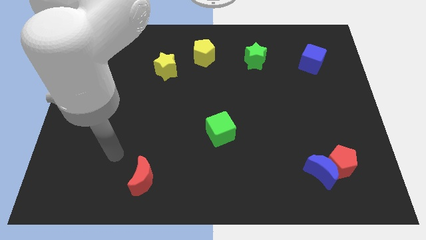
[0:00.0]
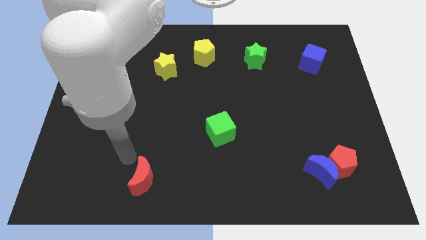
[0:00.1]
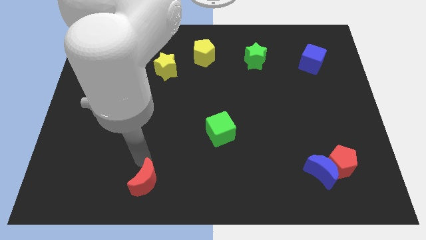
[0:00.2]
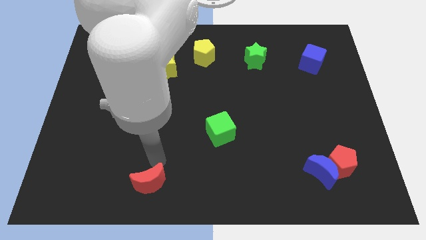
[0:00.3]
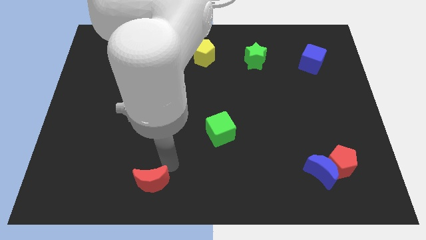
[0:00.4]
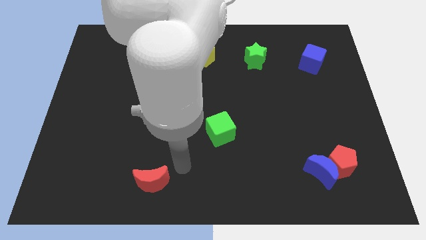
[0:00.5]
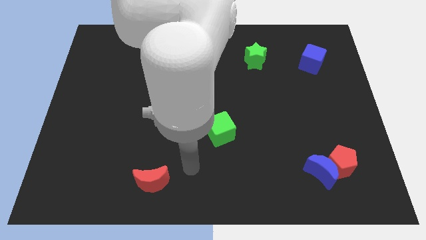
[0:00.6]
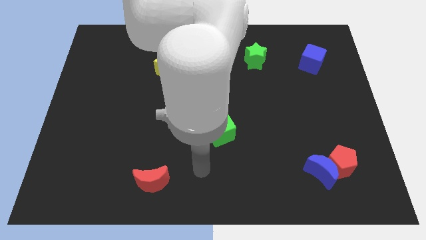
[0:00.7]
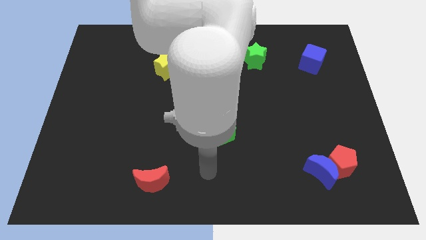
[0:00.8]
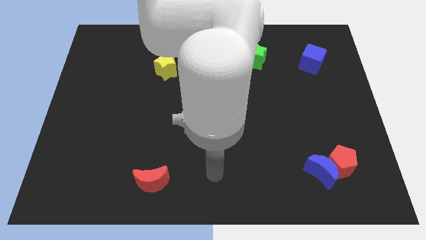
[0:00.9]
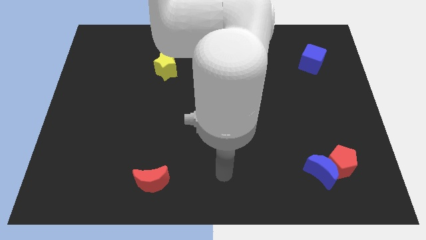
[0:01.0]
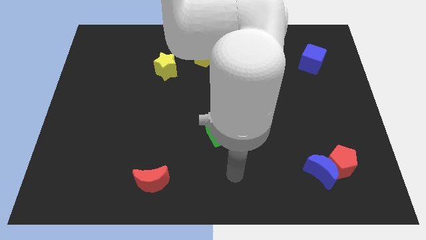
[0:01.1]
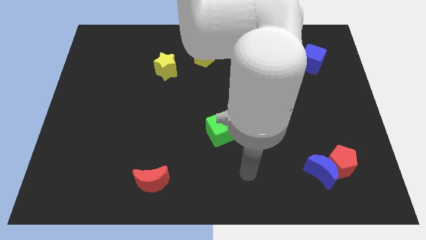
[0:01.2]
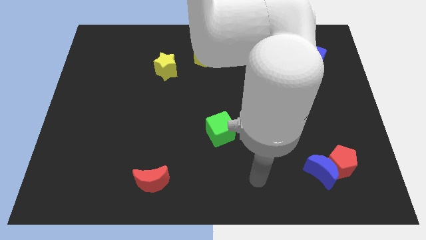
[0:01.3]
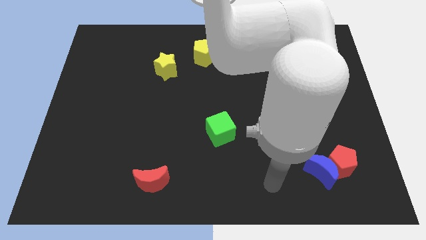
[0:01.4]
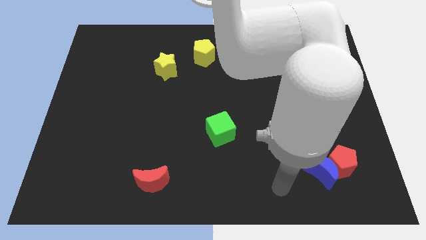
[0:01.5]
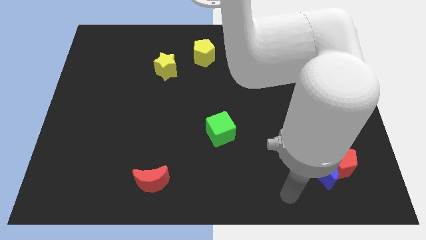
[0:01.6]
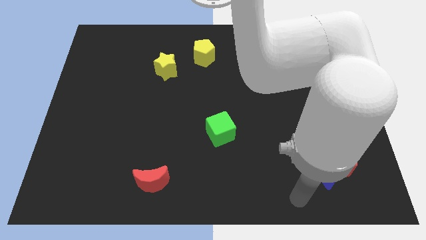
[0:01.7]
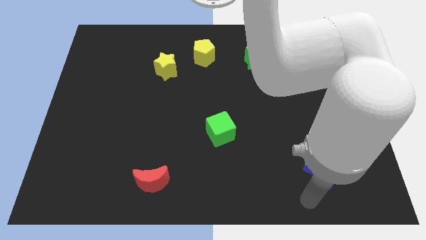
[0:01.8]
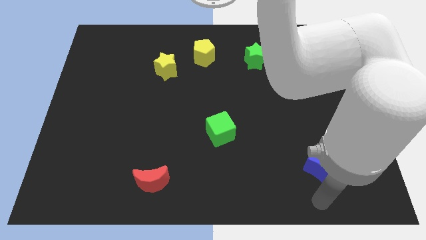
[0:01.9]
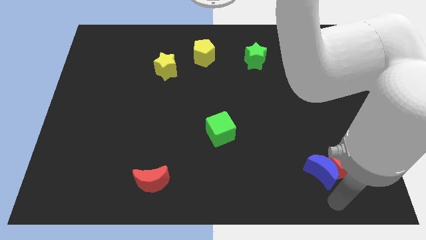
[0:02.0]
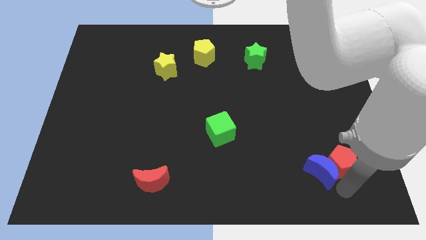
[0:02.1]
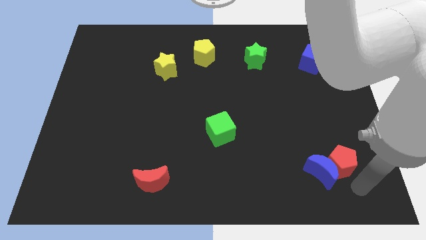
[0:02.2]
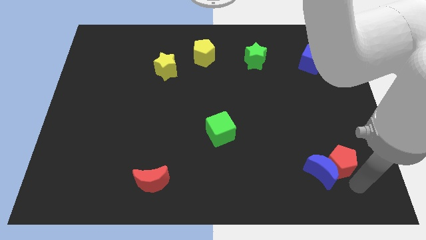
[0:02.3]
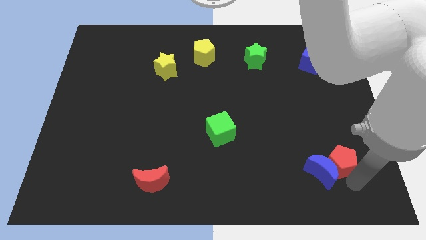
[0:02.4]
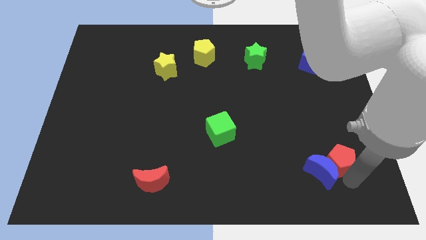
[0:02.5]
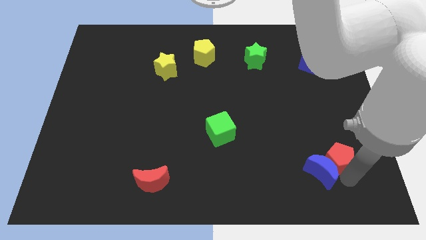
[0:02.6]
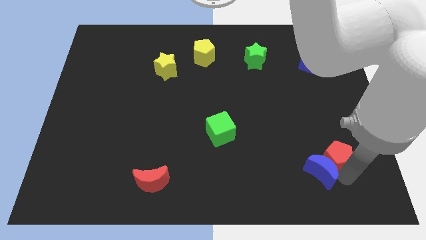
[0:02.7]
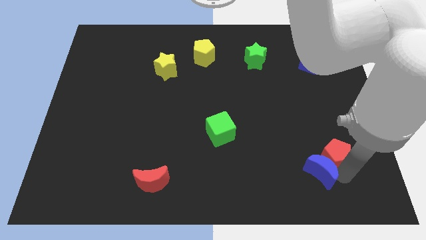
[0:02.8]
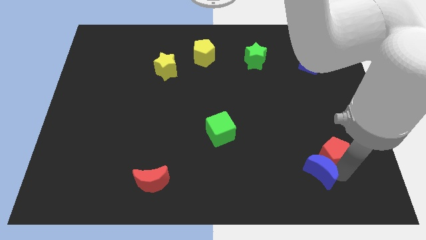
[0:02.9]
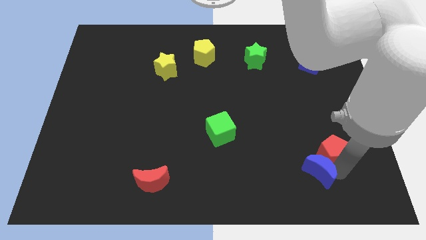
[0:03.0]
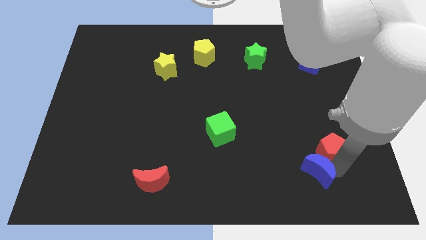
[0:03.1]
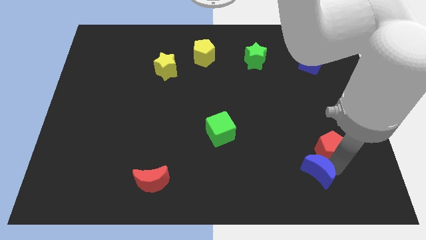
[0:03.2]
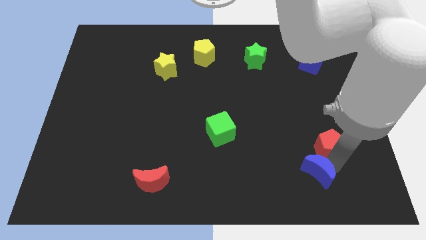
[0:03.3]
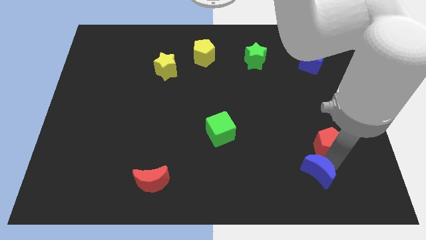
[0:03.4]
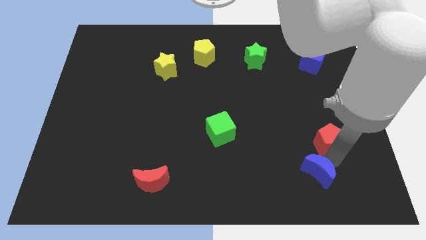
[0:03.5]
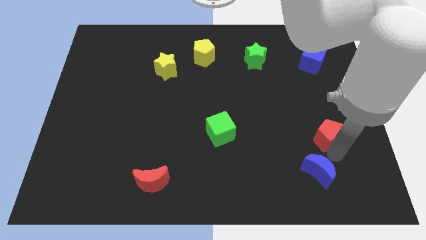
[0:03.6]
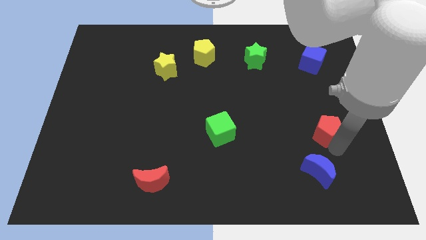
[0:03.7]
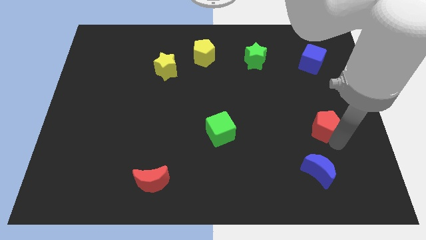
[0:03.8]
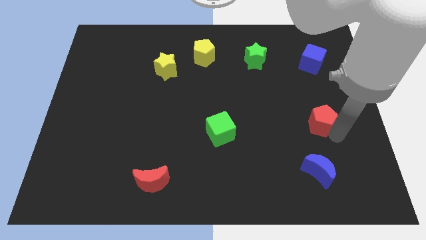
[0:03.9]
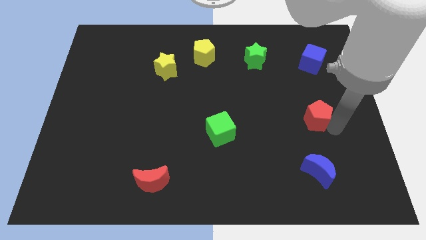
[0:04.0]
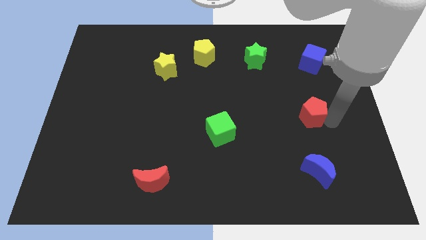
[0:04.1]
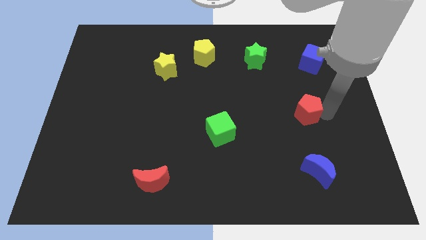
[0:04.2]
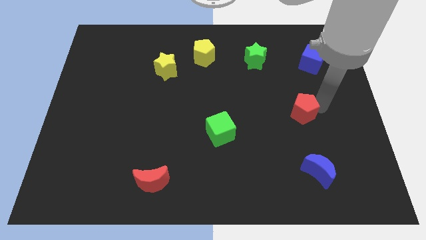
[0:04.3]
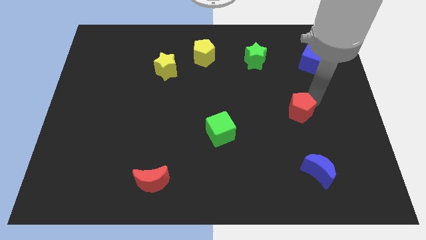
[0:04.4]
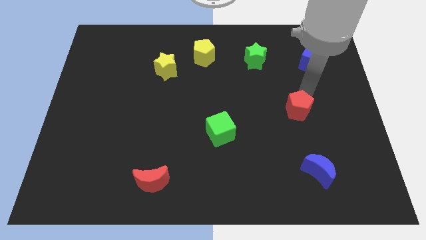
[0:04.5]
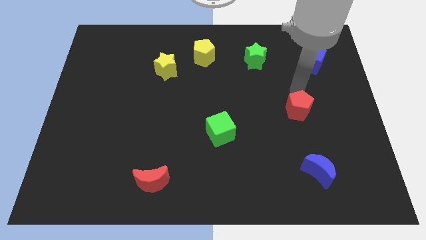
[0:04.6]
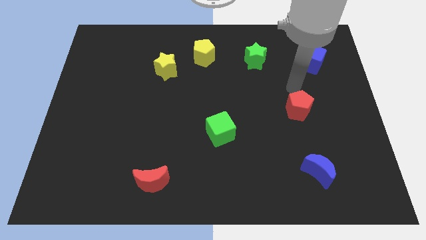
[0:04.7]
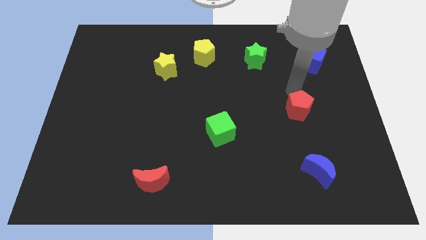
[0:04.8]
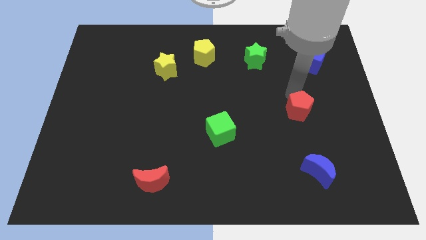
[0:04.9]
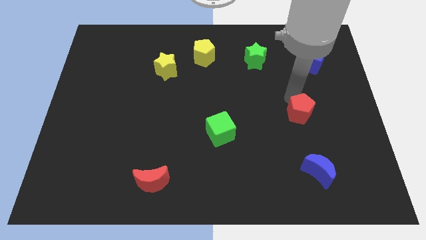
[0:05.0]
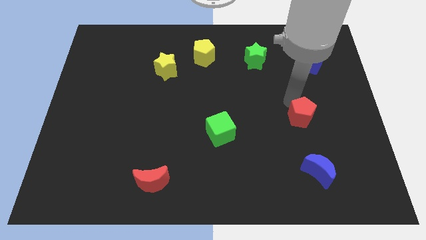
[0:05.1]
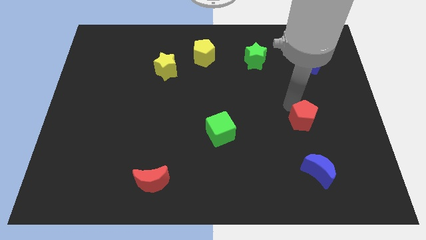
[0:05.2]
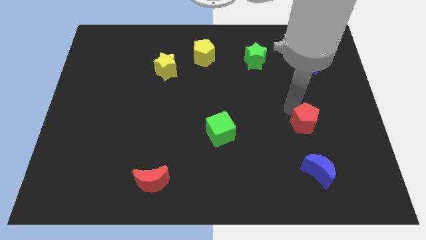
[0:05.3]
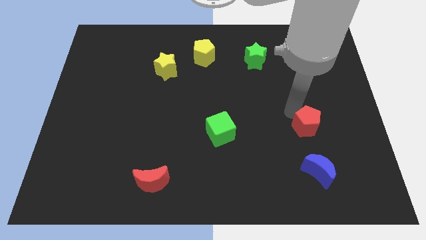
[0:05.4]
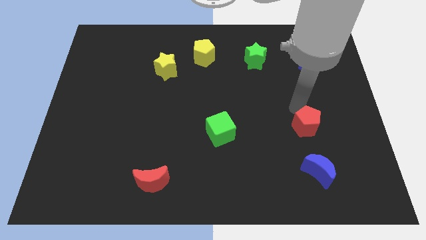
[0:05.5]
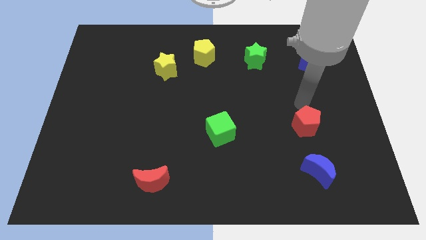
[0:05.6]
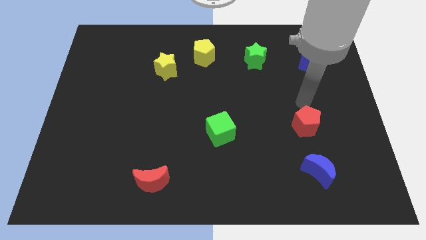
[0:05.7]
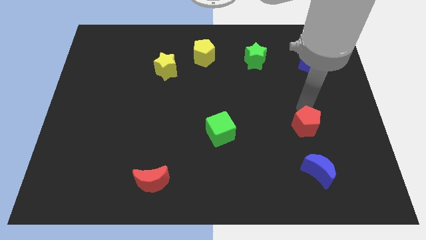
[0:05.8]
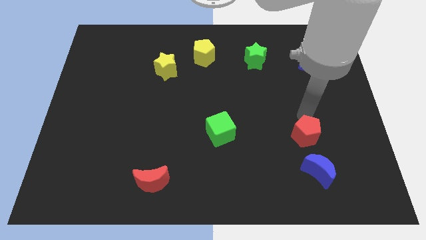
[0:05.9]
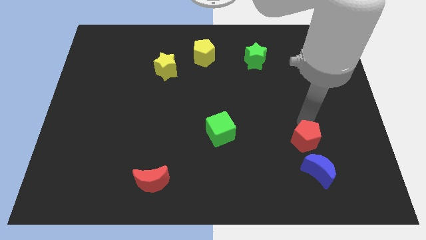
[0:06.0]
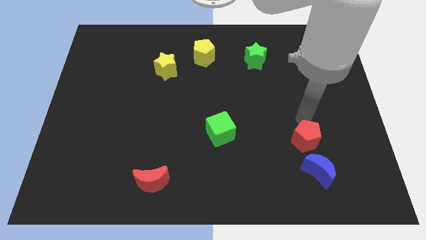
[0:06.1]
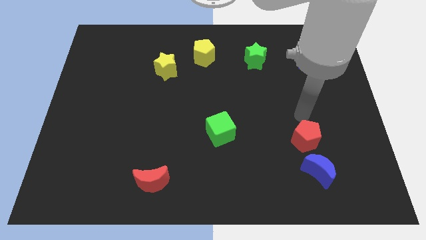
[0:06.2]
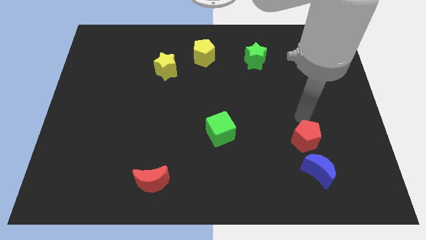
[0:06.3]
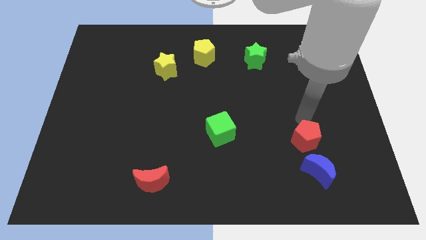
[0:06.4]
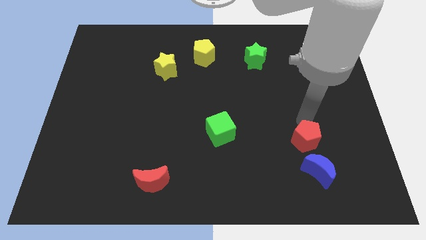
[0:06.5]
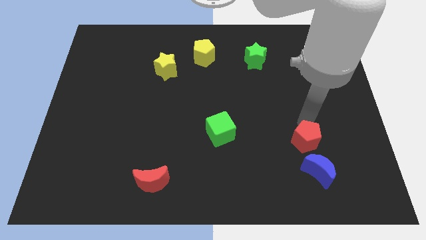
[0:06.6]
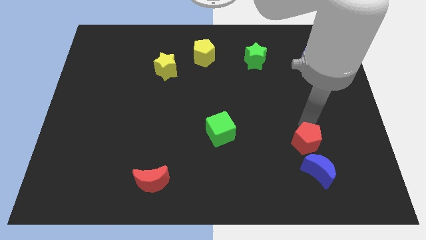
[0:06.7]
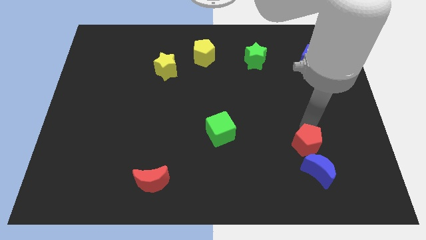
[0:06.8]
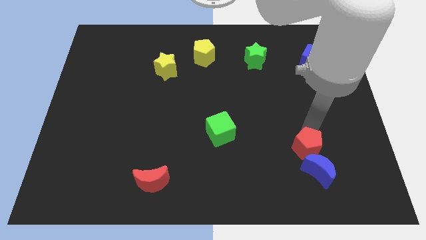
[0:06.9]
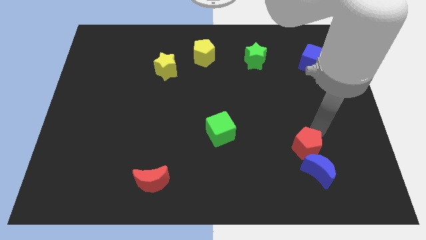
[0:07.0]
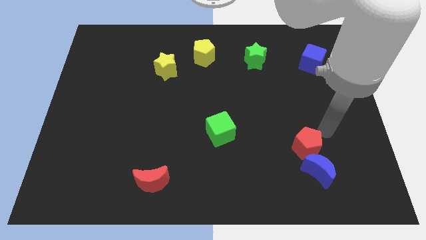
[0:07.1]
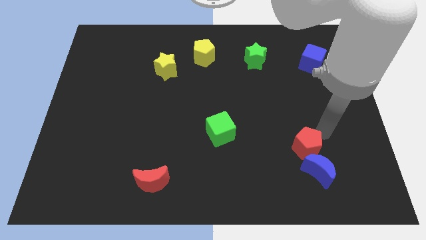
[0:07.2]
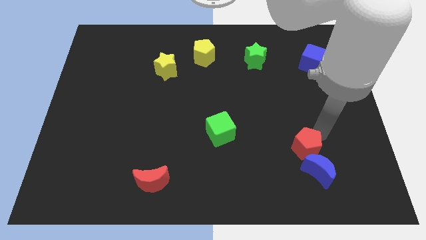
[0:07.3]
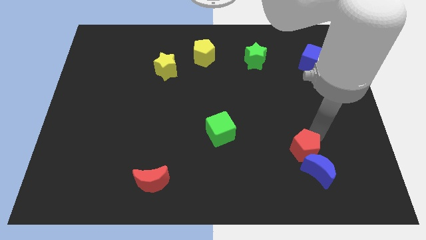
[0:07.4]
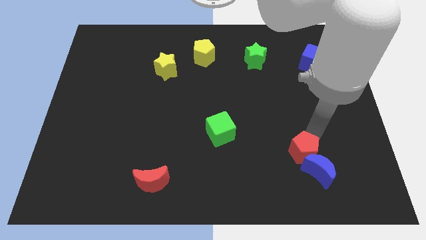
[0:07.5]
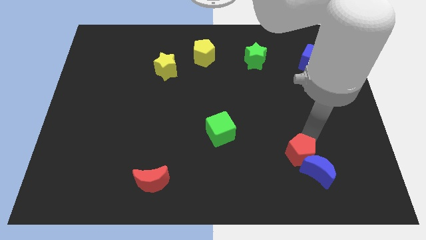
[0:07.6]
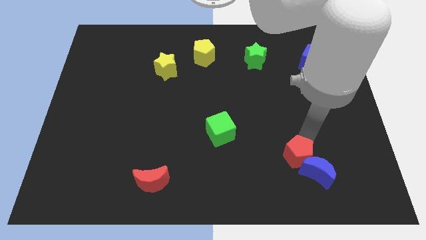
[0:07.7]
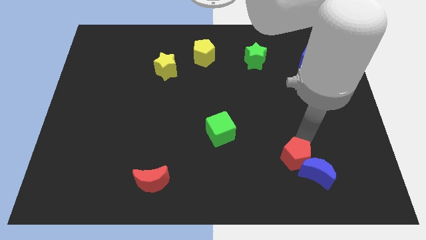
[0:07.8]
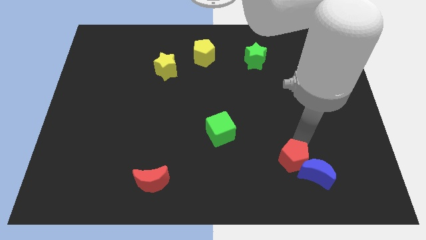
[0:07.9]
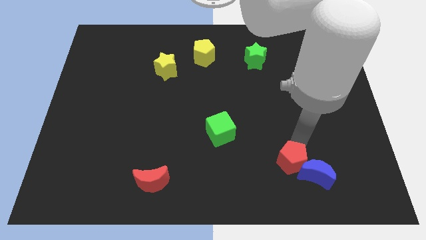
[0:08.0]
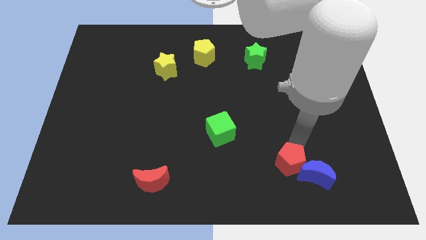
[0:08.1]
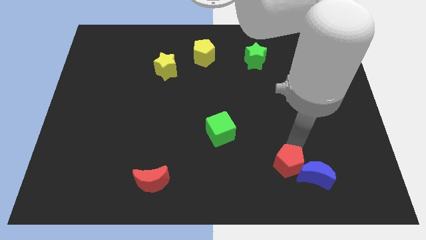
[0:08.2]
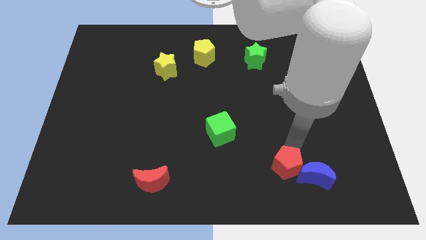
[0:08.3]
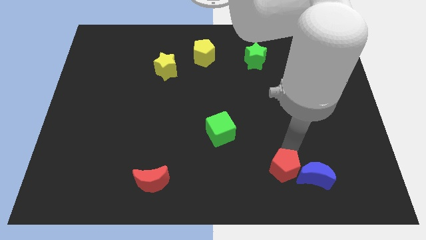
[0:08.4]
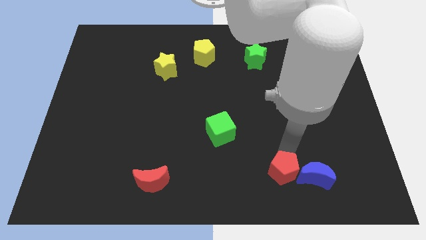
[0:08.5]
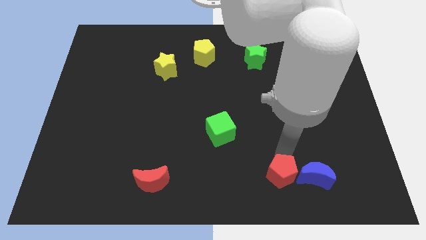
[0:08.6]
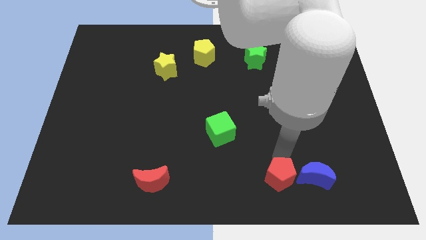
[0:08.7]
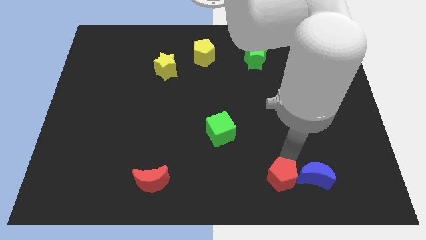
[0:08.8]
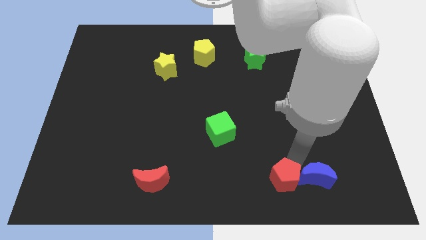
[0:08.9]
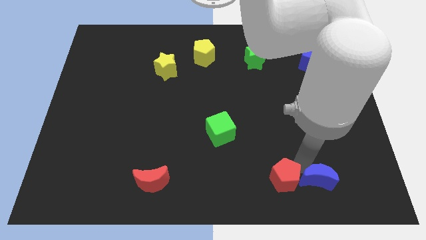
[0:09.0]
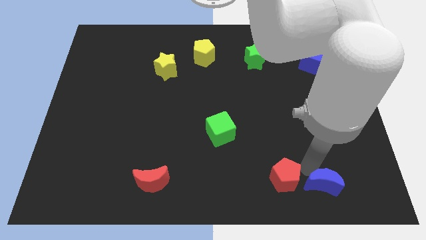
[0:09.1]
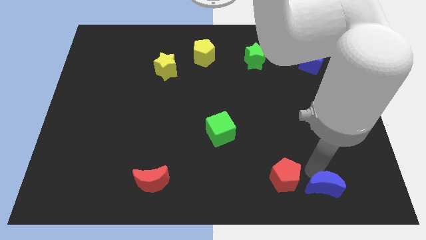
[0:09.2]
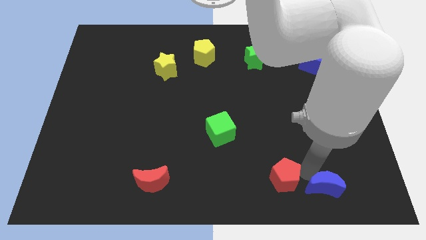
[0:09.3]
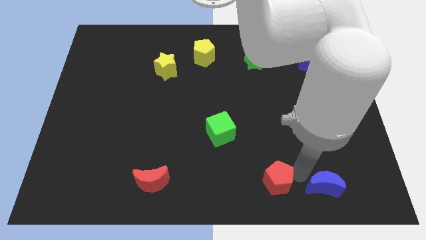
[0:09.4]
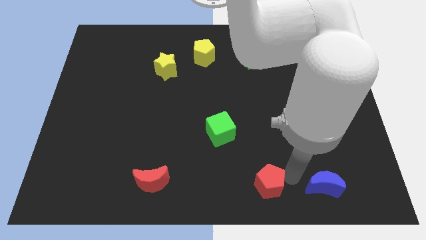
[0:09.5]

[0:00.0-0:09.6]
put the red pentagon to the bottom side
